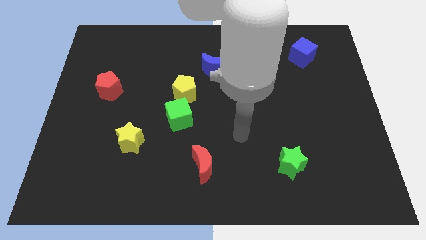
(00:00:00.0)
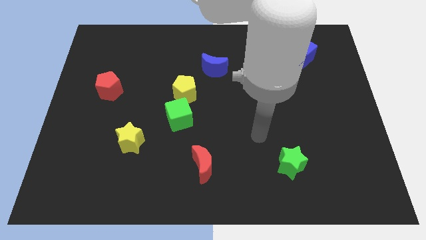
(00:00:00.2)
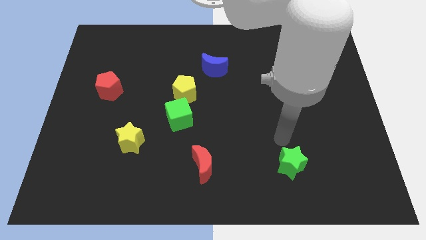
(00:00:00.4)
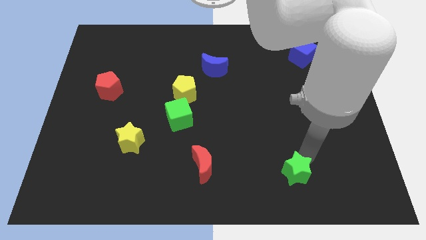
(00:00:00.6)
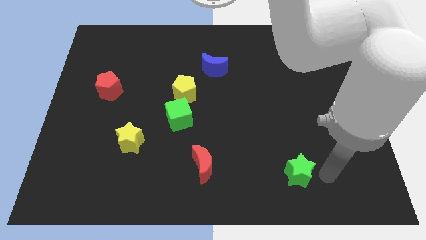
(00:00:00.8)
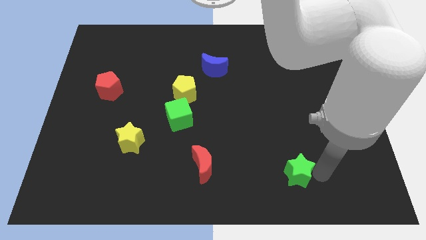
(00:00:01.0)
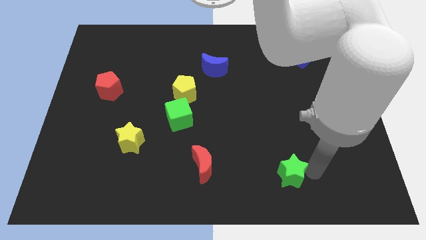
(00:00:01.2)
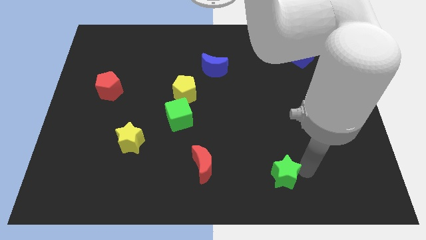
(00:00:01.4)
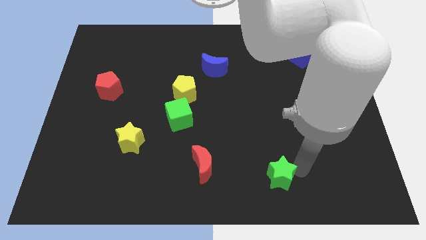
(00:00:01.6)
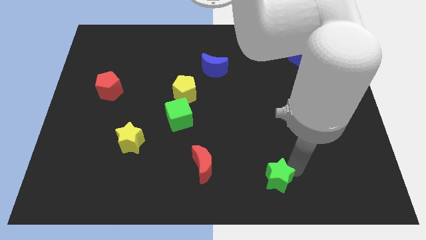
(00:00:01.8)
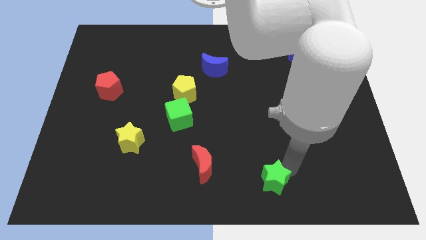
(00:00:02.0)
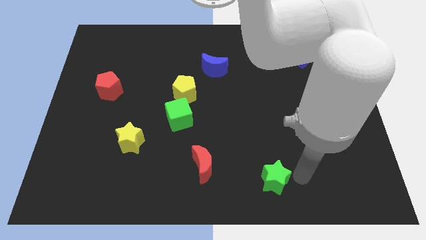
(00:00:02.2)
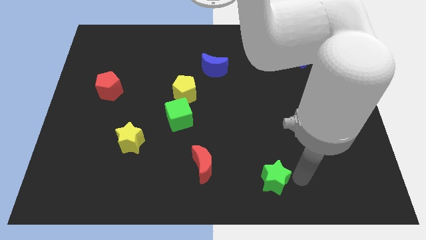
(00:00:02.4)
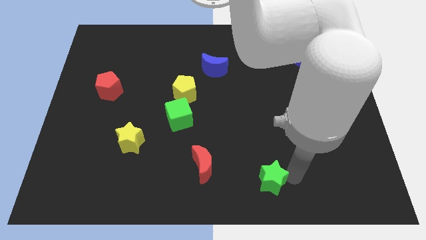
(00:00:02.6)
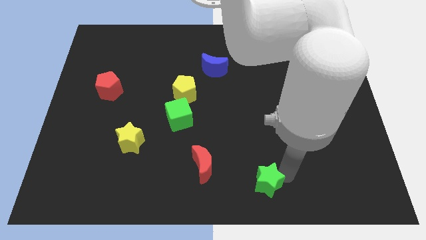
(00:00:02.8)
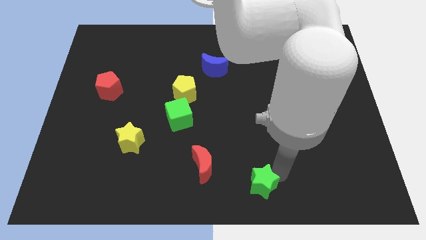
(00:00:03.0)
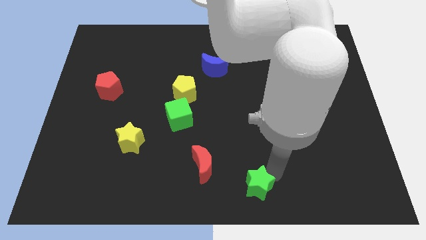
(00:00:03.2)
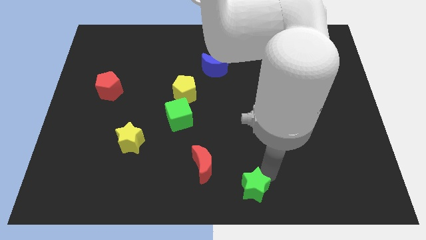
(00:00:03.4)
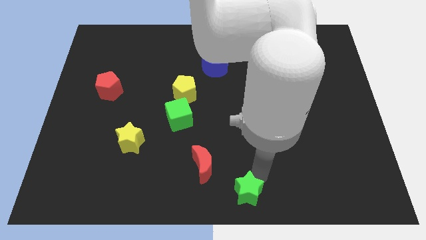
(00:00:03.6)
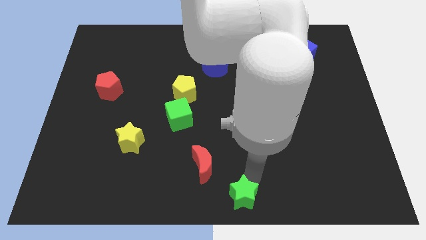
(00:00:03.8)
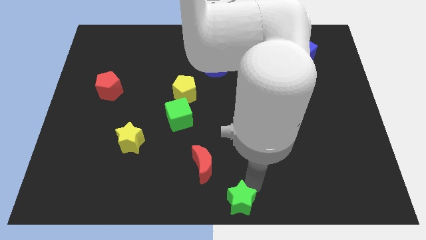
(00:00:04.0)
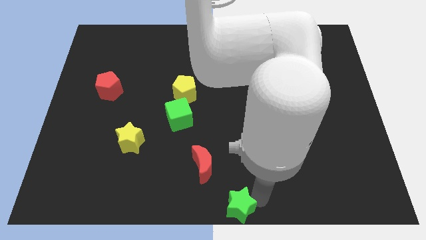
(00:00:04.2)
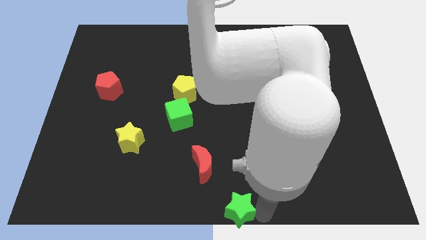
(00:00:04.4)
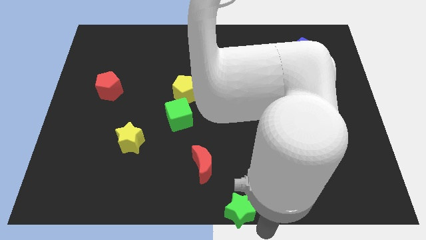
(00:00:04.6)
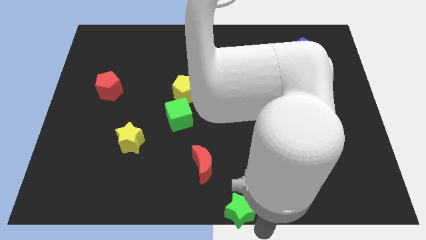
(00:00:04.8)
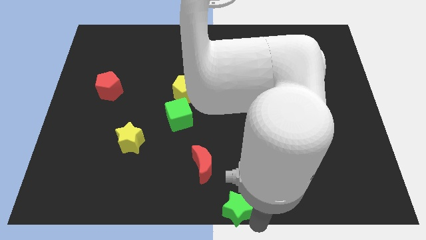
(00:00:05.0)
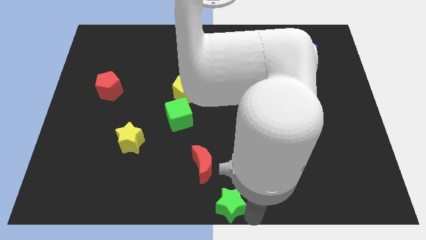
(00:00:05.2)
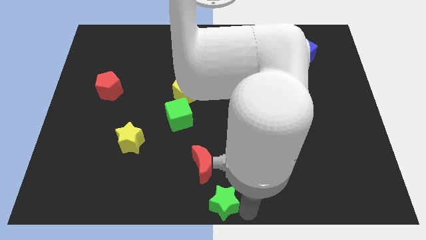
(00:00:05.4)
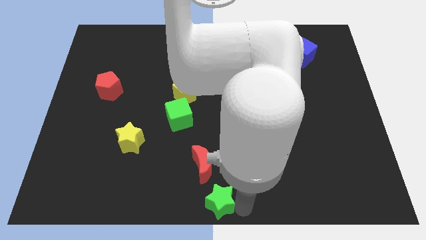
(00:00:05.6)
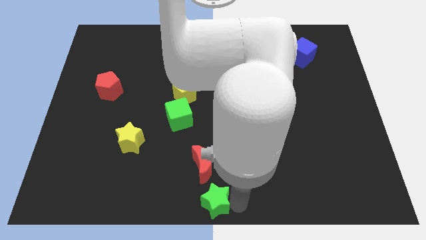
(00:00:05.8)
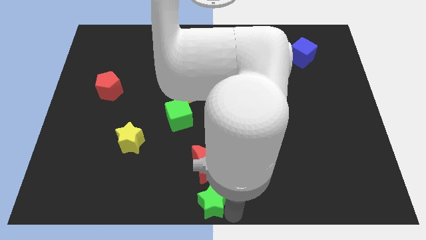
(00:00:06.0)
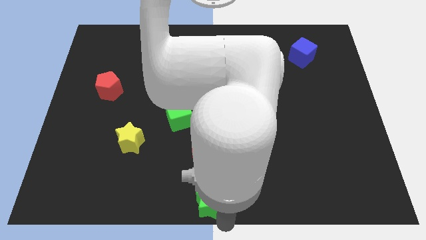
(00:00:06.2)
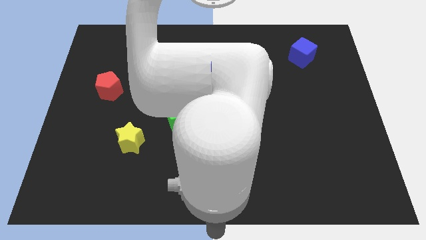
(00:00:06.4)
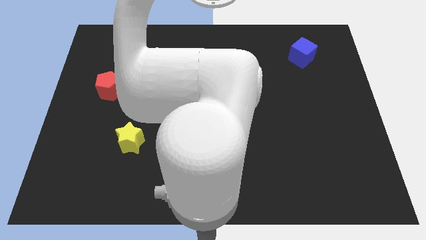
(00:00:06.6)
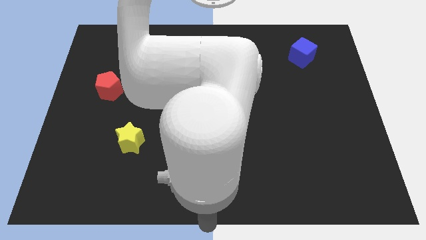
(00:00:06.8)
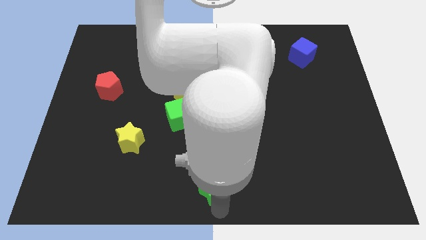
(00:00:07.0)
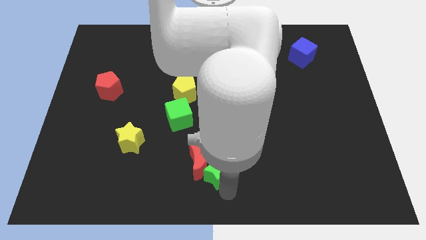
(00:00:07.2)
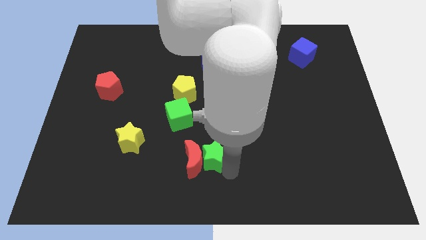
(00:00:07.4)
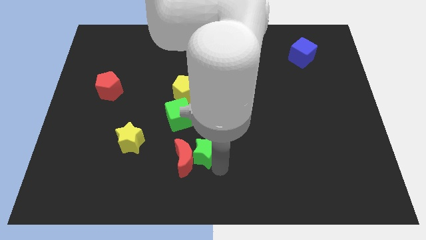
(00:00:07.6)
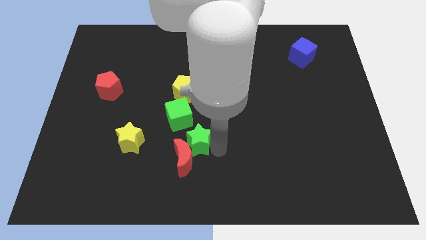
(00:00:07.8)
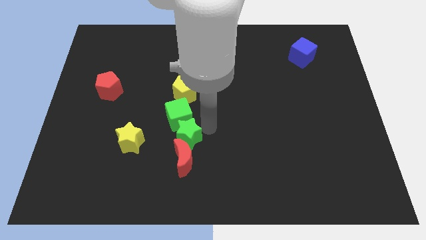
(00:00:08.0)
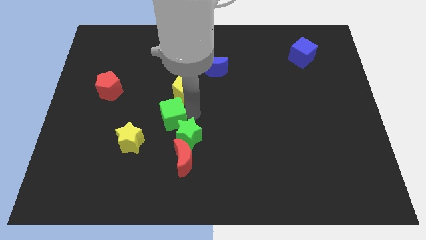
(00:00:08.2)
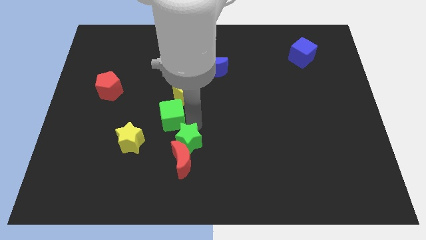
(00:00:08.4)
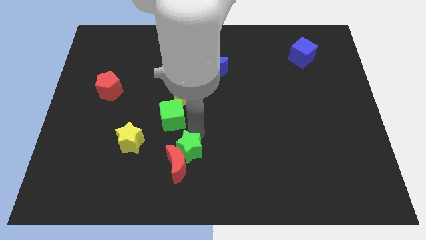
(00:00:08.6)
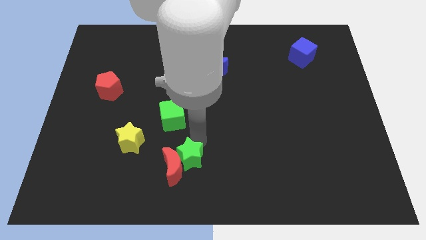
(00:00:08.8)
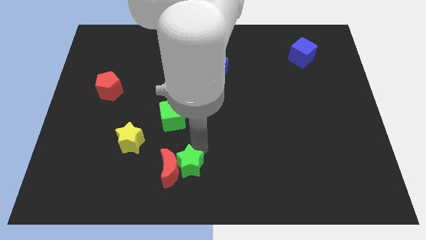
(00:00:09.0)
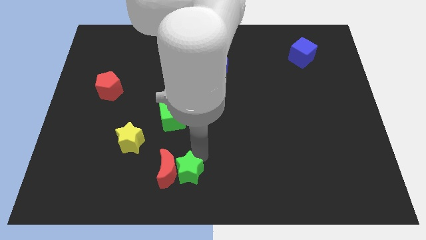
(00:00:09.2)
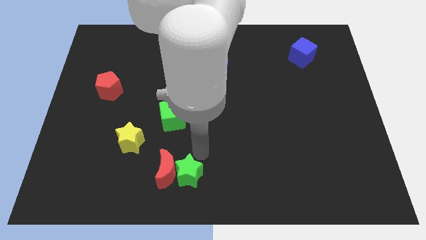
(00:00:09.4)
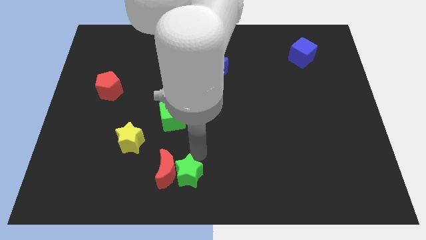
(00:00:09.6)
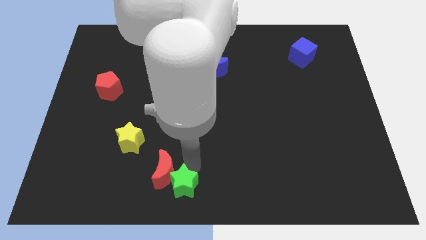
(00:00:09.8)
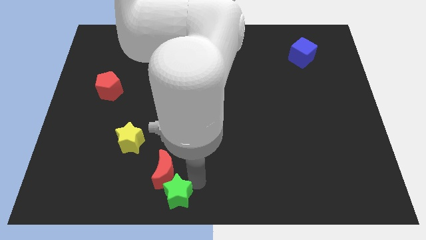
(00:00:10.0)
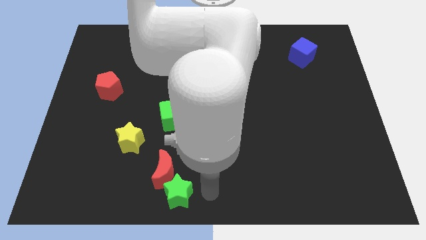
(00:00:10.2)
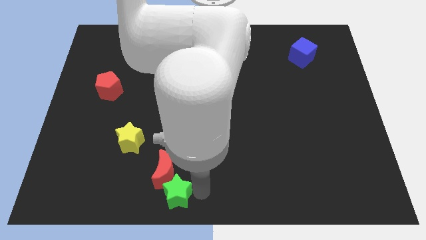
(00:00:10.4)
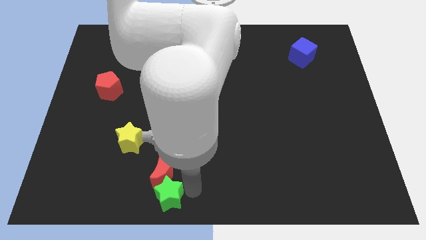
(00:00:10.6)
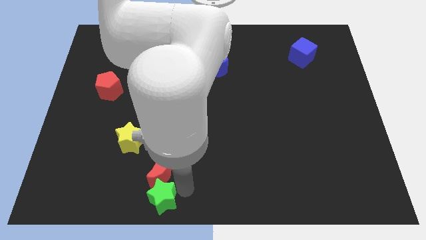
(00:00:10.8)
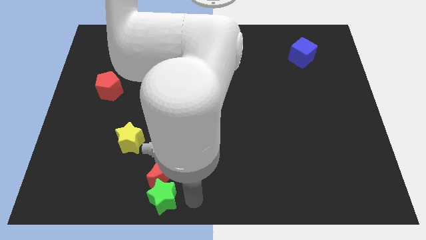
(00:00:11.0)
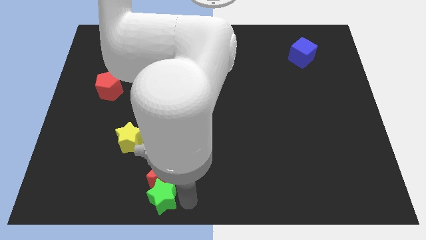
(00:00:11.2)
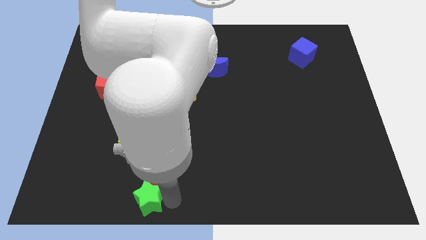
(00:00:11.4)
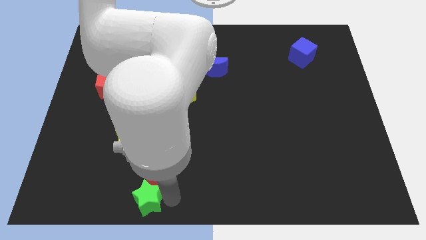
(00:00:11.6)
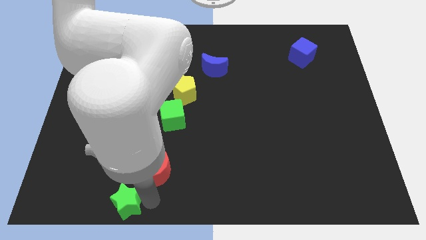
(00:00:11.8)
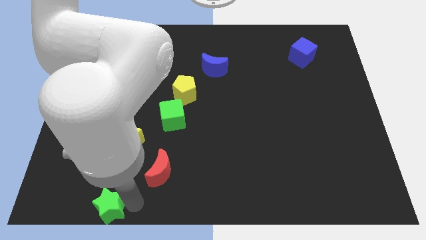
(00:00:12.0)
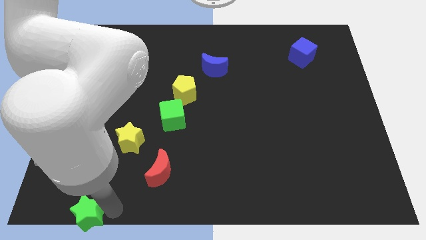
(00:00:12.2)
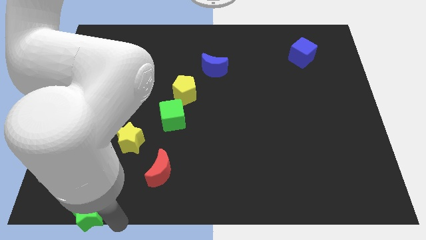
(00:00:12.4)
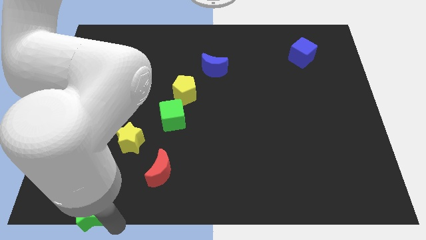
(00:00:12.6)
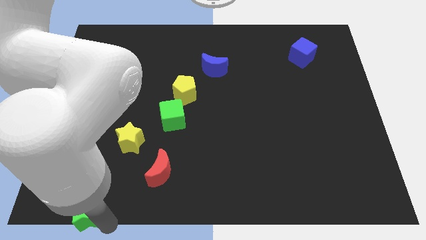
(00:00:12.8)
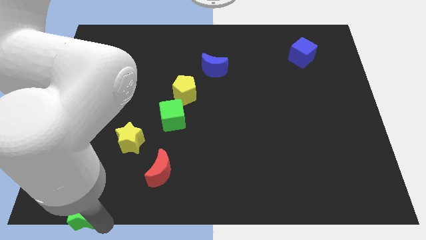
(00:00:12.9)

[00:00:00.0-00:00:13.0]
push the green star to the bottom left corner
